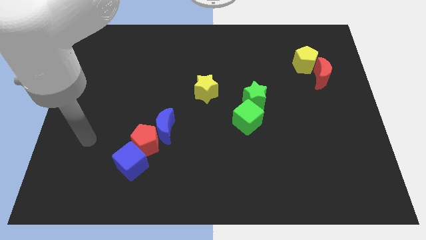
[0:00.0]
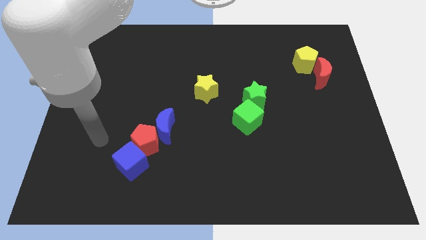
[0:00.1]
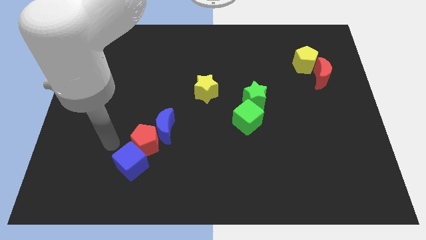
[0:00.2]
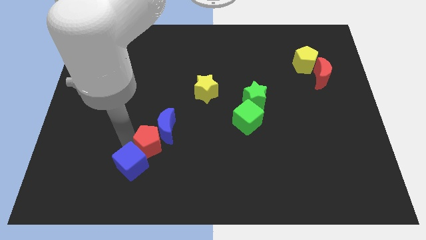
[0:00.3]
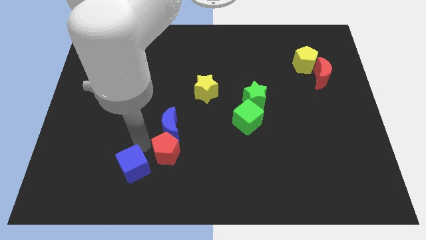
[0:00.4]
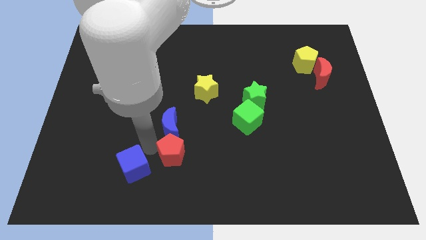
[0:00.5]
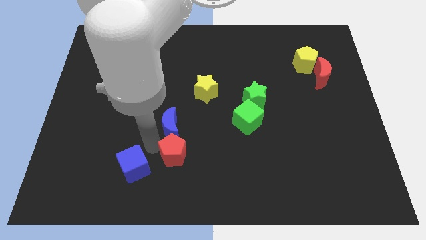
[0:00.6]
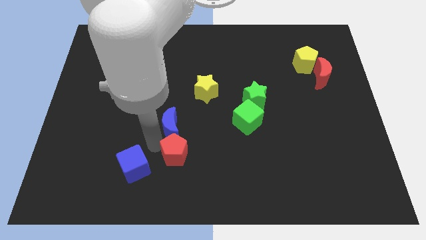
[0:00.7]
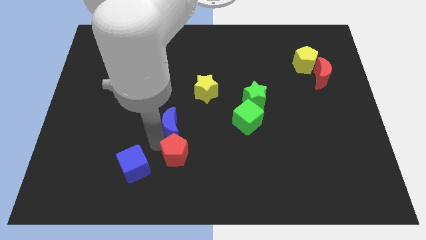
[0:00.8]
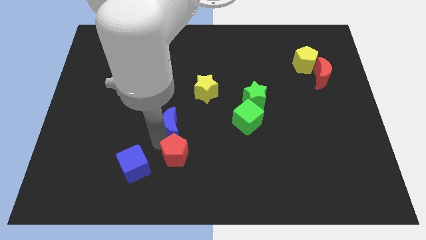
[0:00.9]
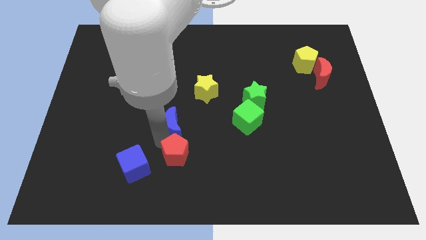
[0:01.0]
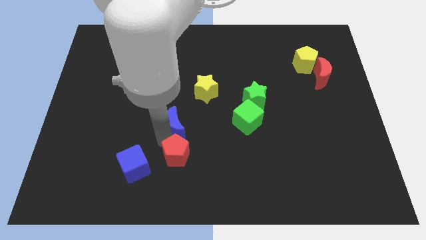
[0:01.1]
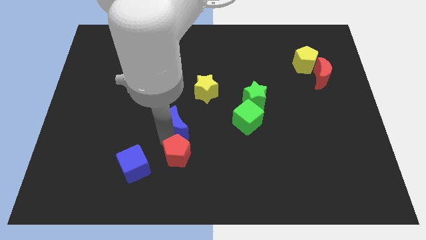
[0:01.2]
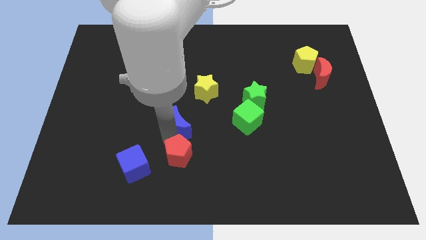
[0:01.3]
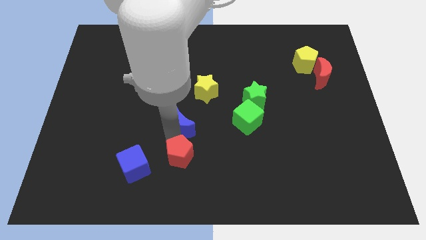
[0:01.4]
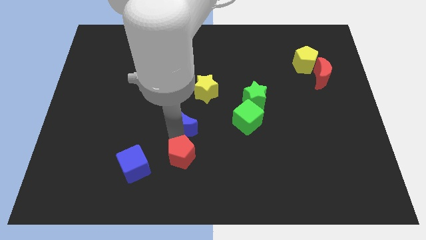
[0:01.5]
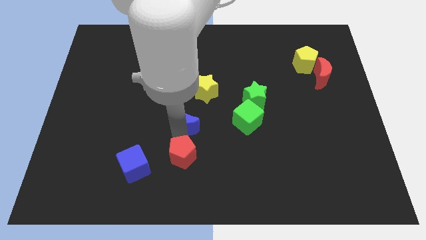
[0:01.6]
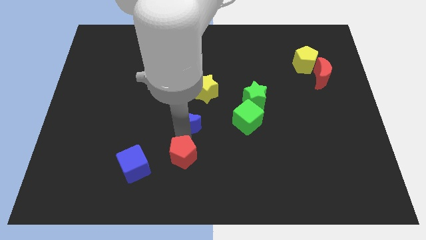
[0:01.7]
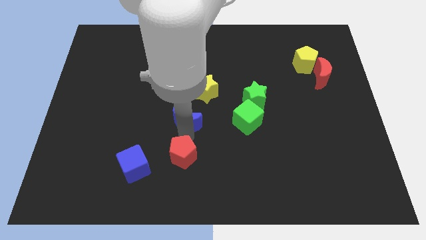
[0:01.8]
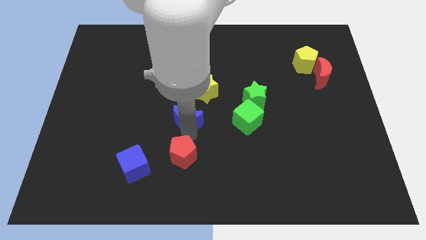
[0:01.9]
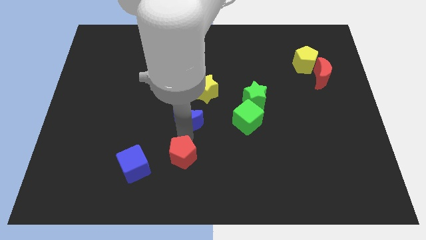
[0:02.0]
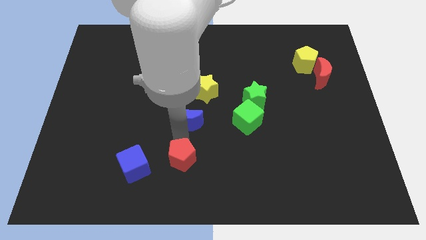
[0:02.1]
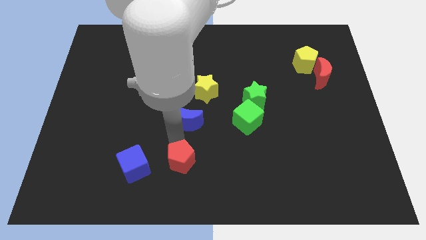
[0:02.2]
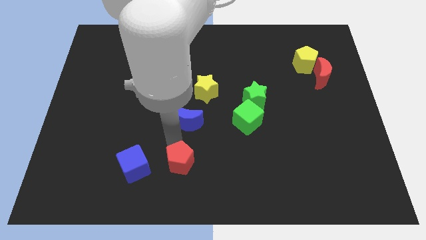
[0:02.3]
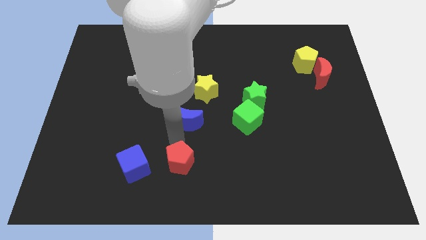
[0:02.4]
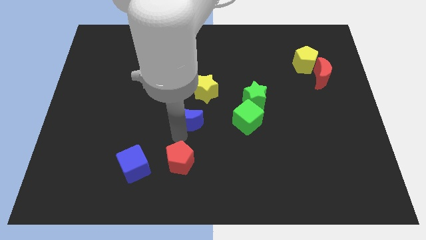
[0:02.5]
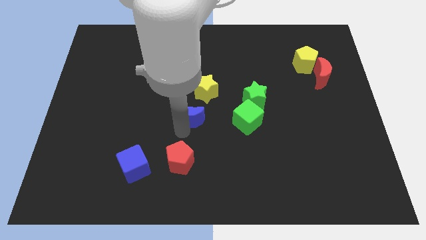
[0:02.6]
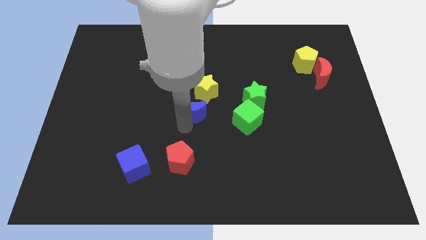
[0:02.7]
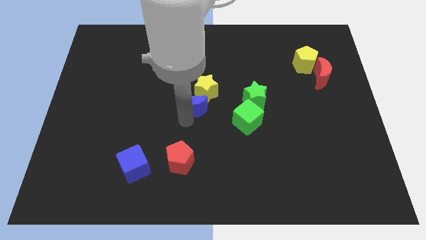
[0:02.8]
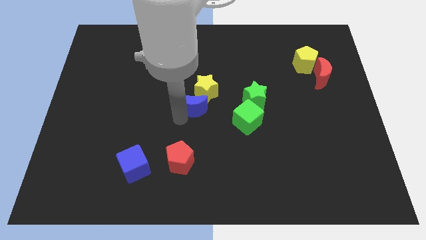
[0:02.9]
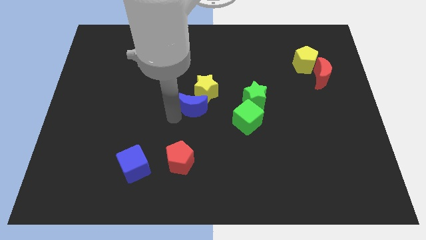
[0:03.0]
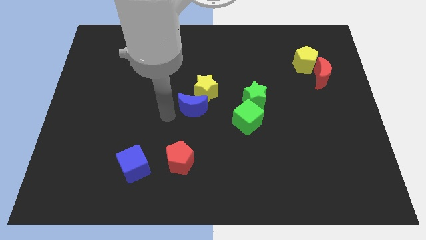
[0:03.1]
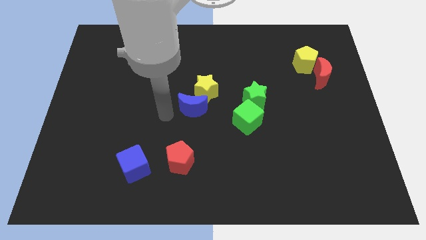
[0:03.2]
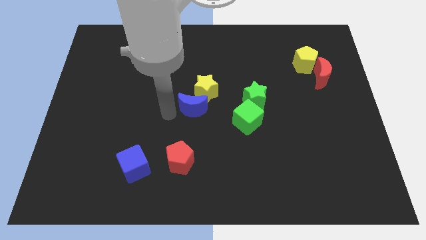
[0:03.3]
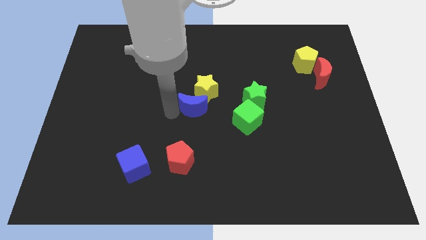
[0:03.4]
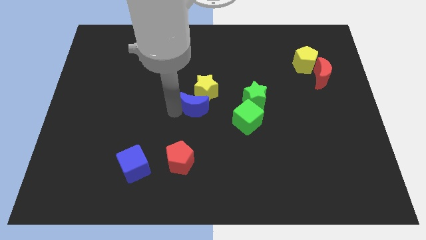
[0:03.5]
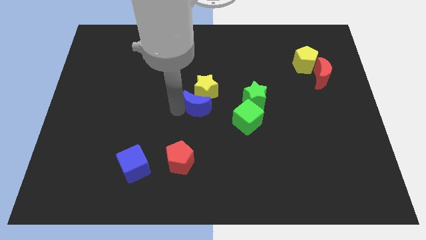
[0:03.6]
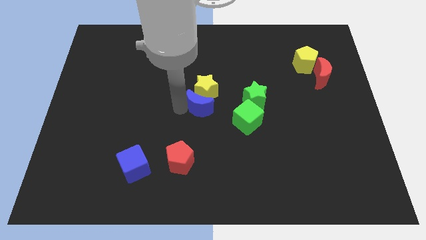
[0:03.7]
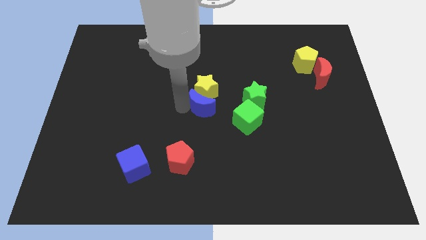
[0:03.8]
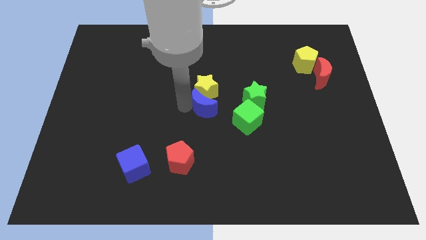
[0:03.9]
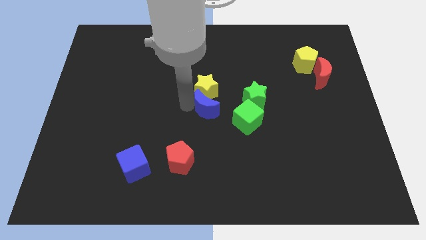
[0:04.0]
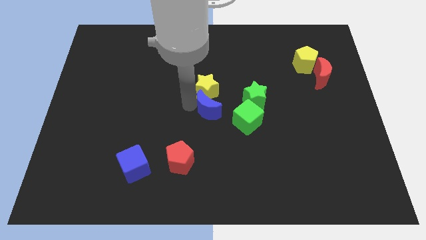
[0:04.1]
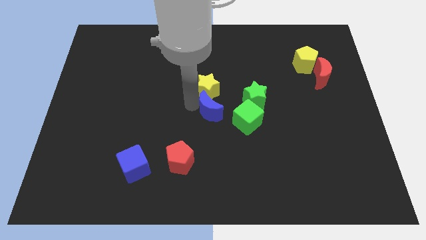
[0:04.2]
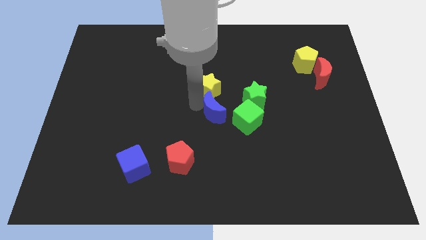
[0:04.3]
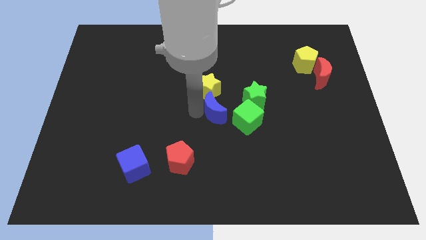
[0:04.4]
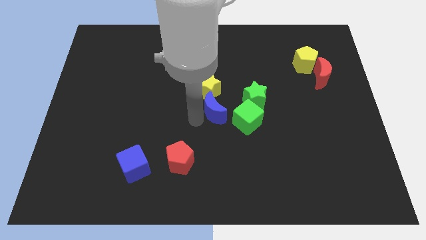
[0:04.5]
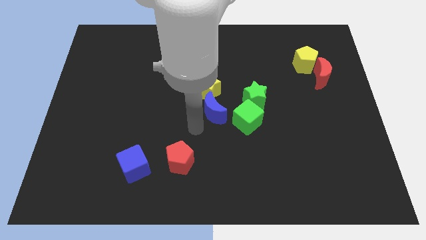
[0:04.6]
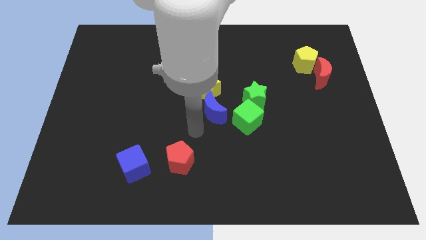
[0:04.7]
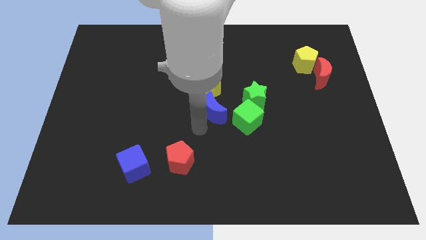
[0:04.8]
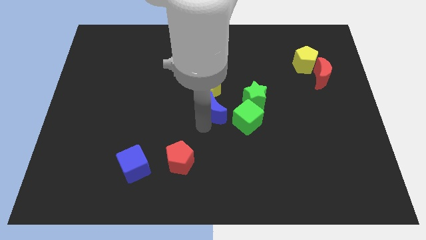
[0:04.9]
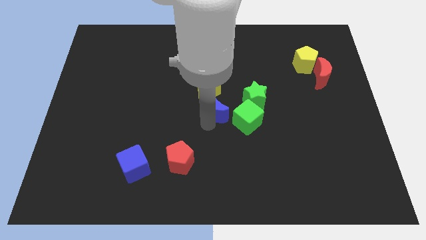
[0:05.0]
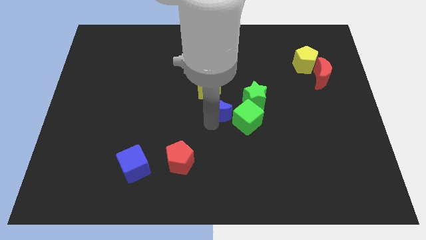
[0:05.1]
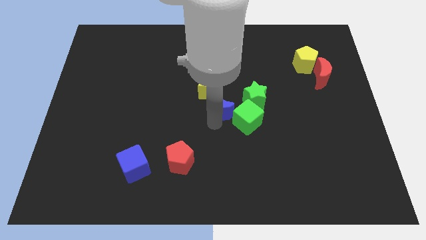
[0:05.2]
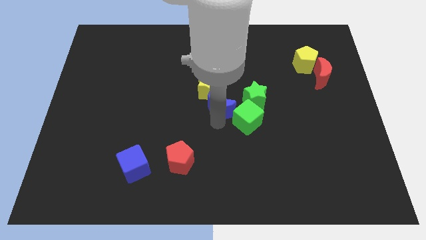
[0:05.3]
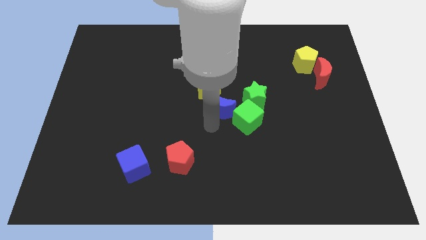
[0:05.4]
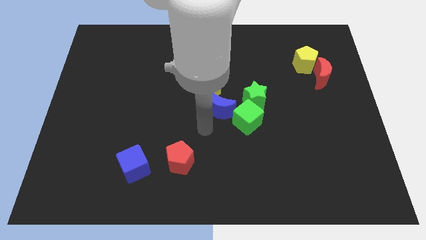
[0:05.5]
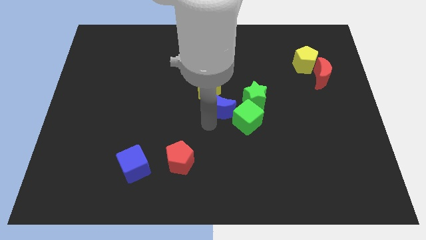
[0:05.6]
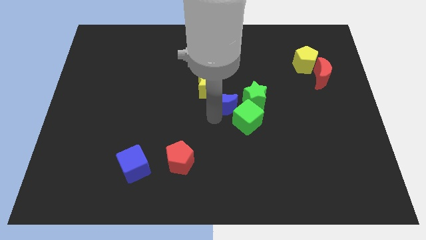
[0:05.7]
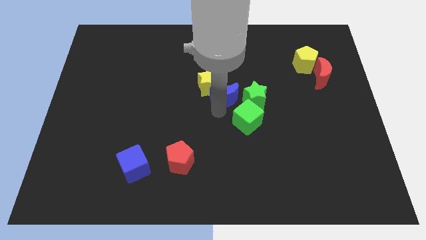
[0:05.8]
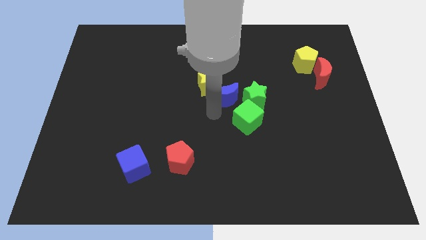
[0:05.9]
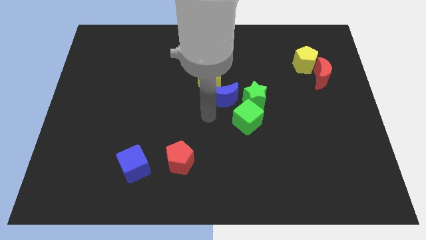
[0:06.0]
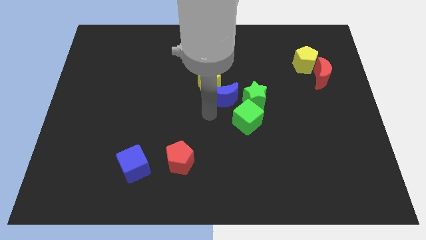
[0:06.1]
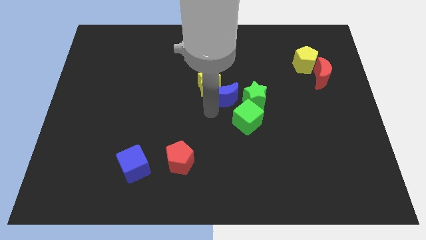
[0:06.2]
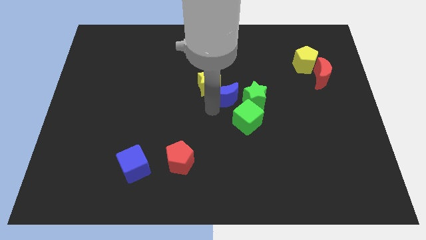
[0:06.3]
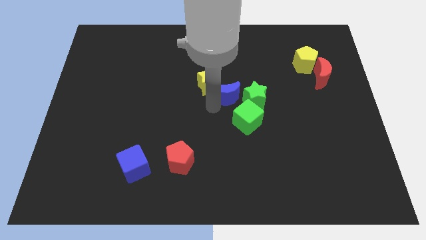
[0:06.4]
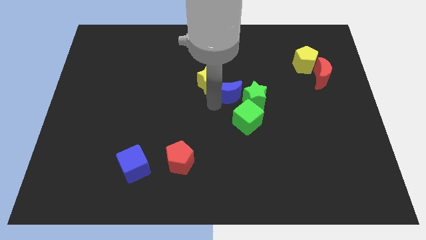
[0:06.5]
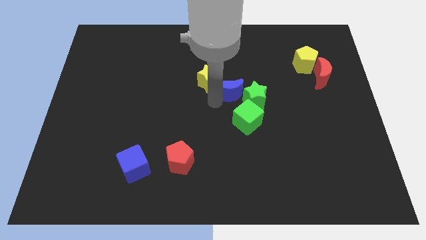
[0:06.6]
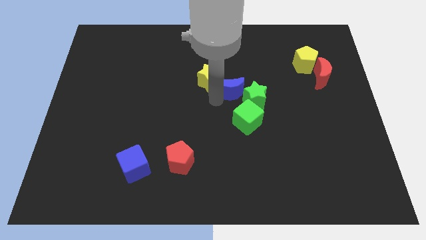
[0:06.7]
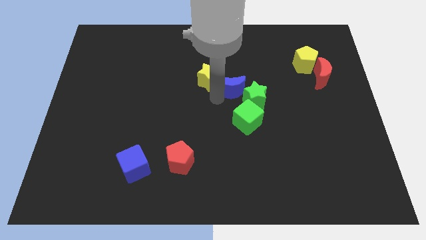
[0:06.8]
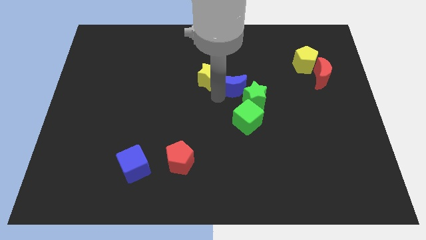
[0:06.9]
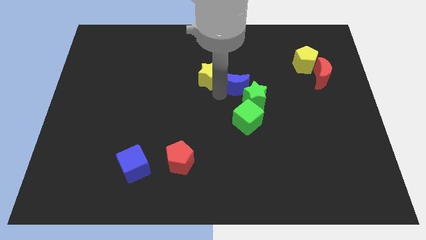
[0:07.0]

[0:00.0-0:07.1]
move the blue moon up and then right

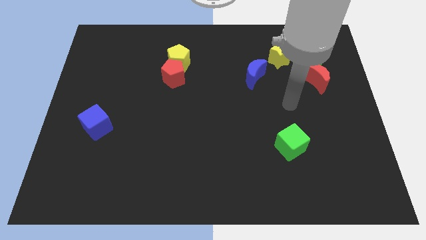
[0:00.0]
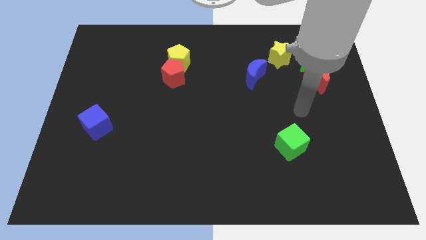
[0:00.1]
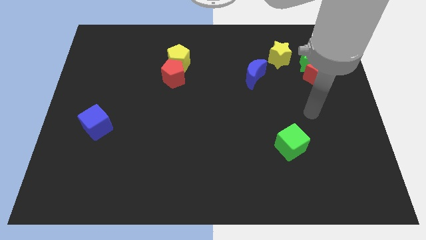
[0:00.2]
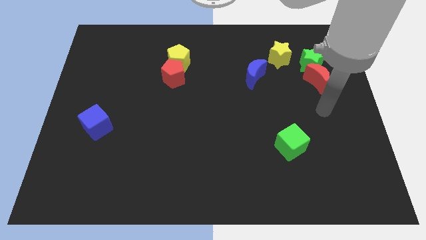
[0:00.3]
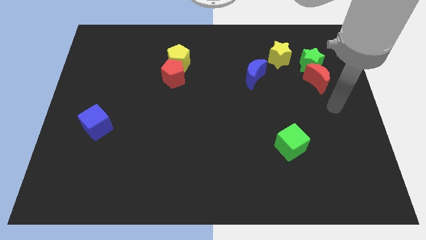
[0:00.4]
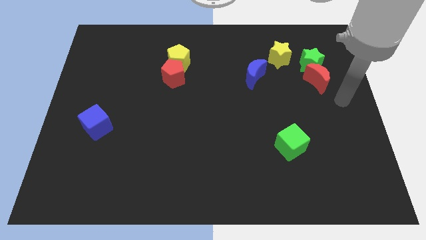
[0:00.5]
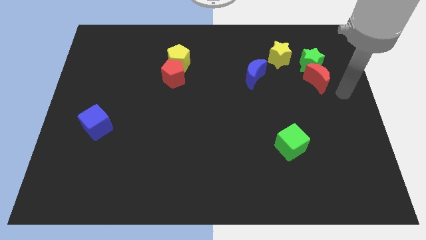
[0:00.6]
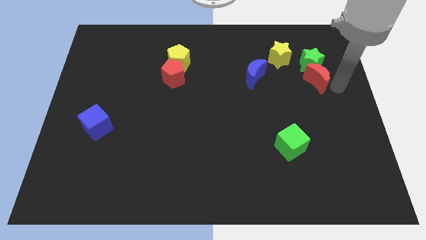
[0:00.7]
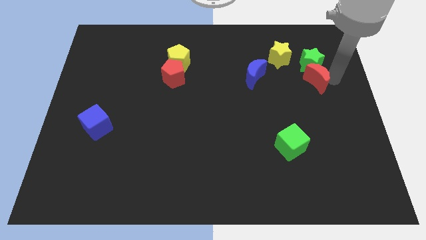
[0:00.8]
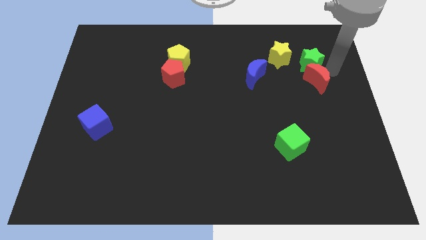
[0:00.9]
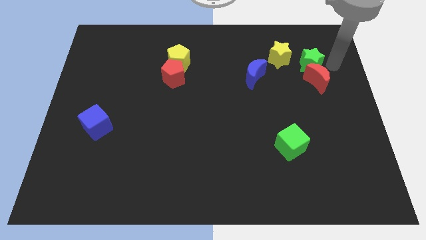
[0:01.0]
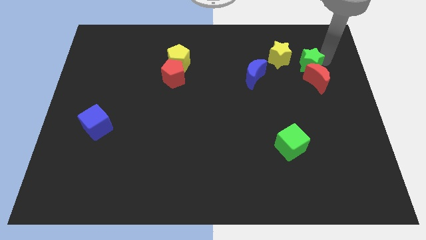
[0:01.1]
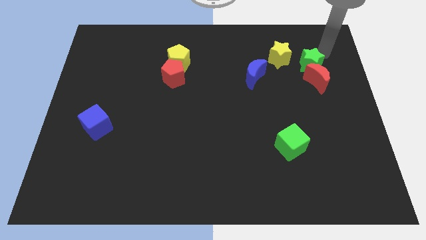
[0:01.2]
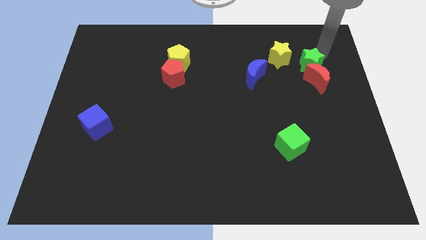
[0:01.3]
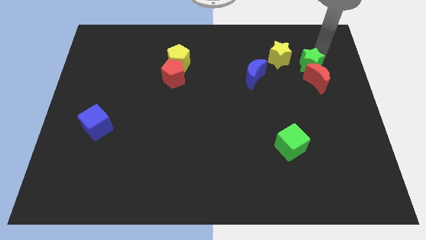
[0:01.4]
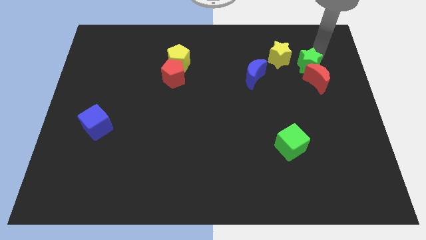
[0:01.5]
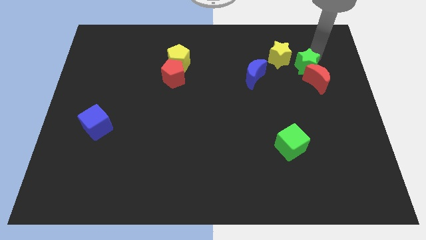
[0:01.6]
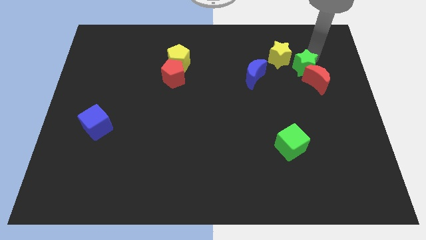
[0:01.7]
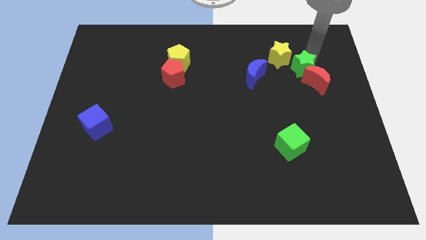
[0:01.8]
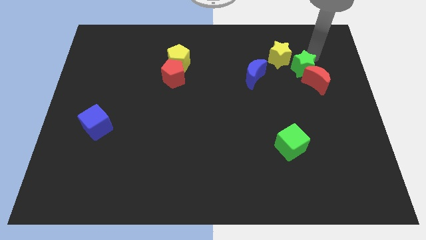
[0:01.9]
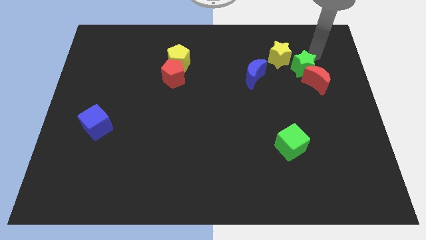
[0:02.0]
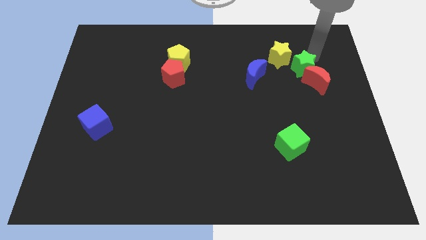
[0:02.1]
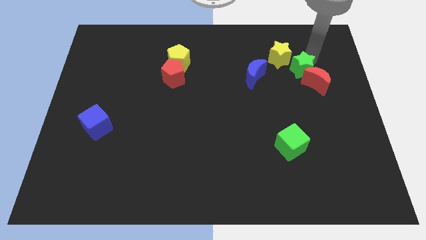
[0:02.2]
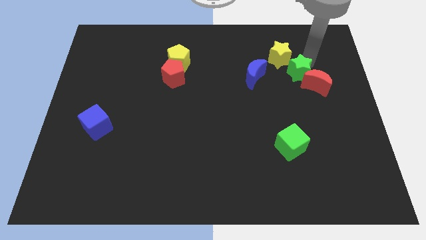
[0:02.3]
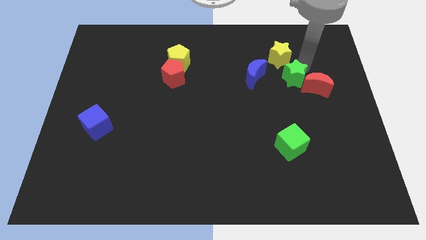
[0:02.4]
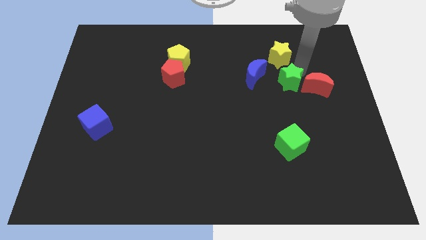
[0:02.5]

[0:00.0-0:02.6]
push the green star slightly diagonally down and left
